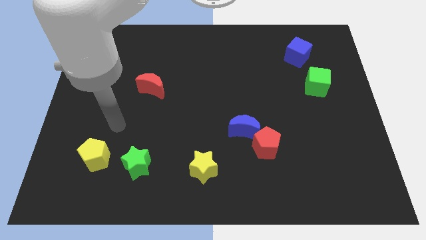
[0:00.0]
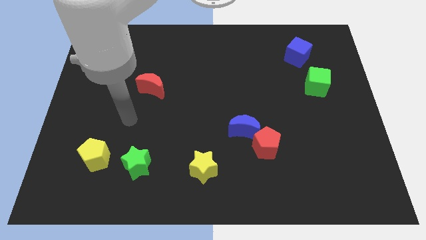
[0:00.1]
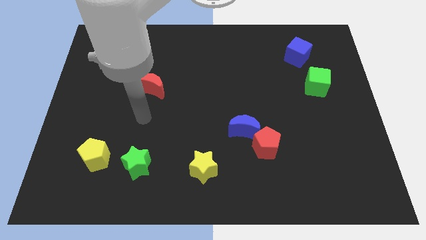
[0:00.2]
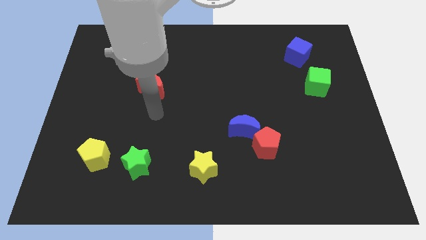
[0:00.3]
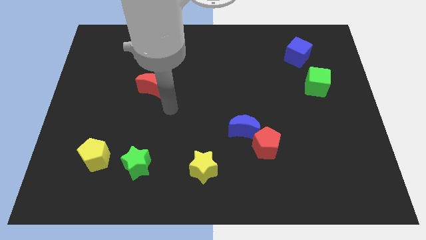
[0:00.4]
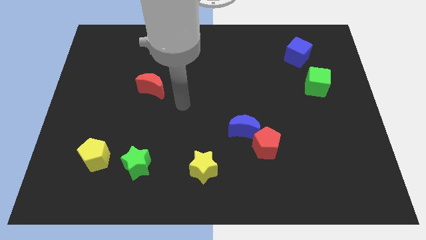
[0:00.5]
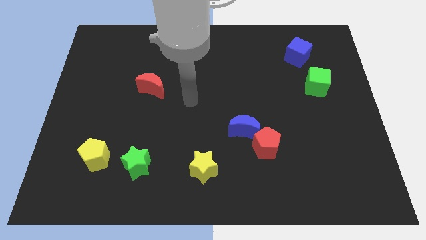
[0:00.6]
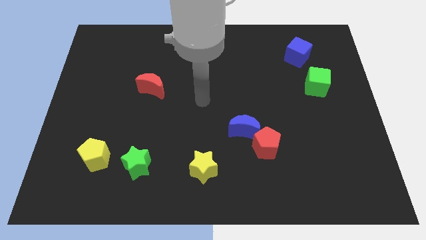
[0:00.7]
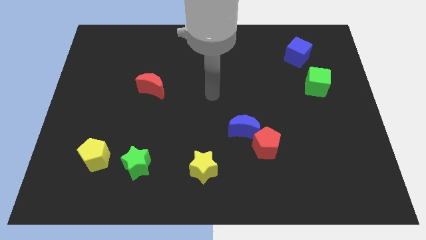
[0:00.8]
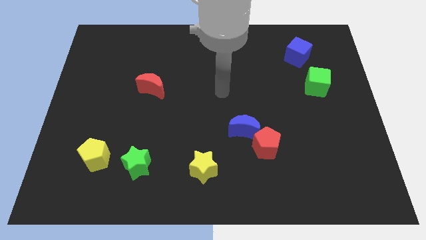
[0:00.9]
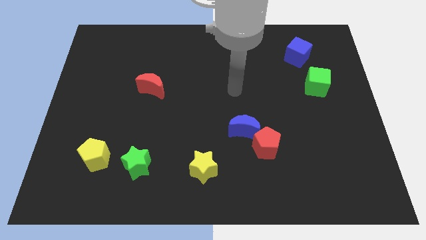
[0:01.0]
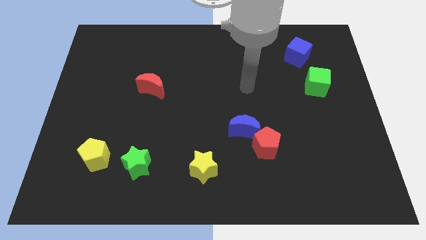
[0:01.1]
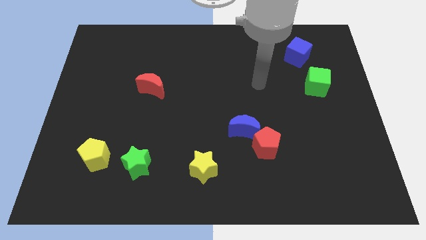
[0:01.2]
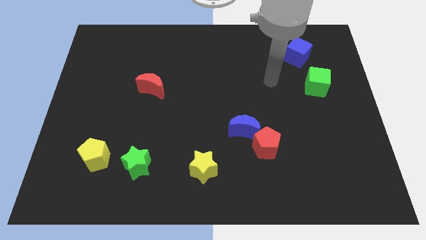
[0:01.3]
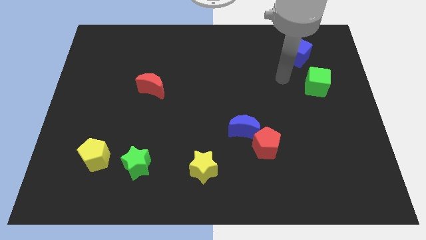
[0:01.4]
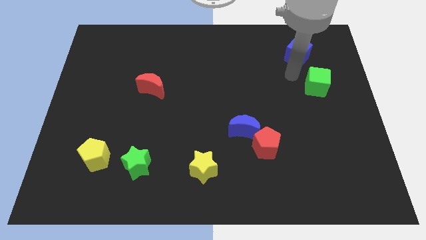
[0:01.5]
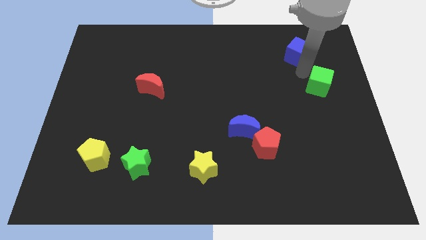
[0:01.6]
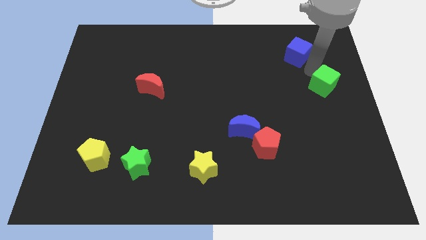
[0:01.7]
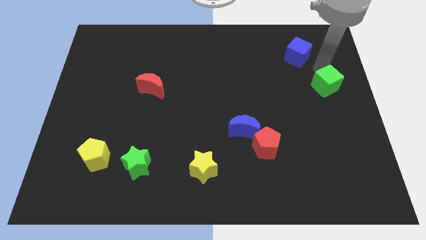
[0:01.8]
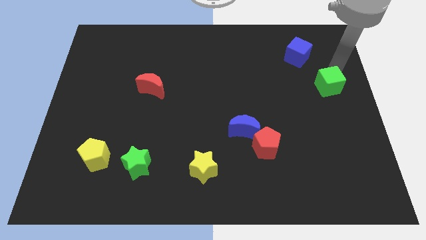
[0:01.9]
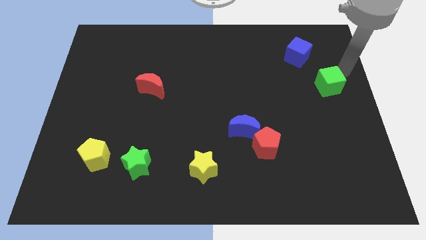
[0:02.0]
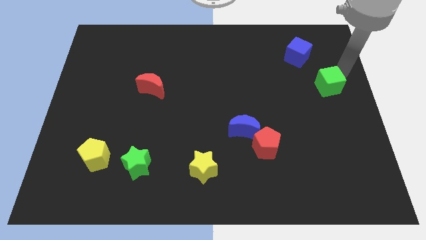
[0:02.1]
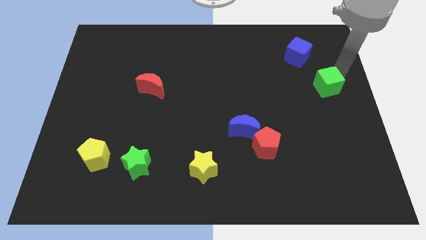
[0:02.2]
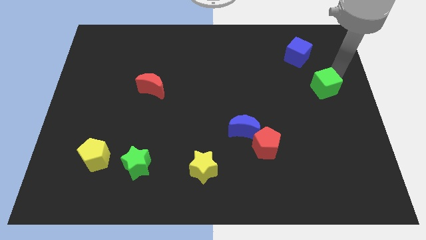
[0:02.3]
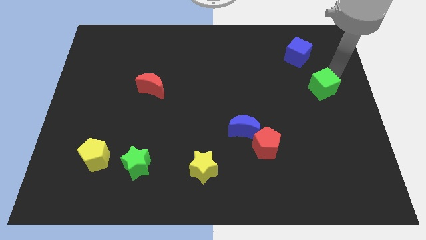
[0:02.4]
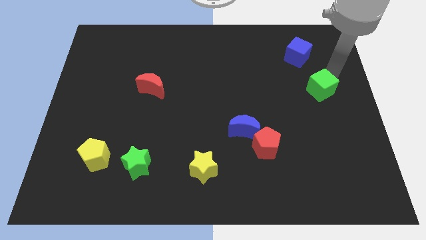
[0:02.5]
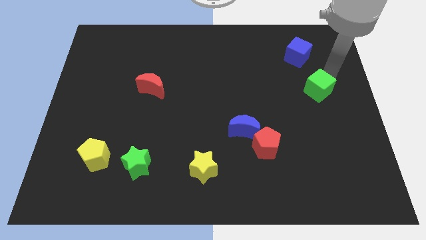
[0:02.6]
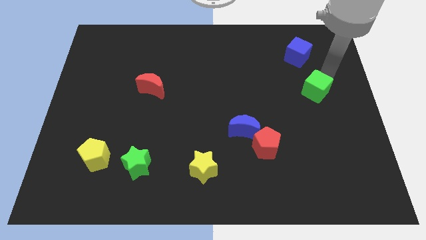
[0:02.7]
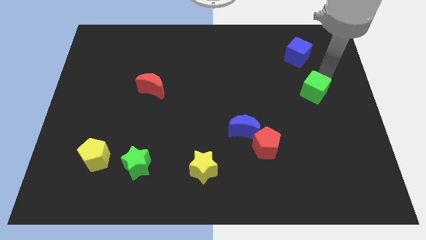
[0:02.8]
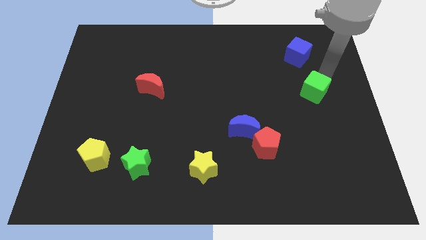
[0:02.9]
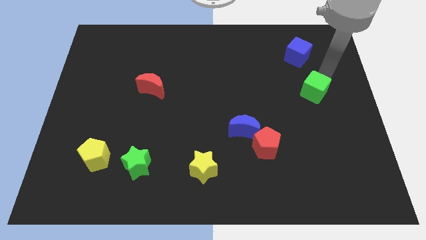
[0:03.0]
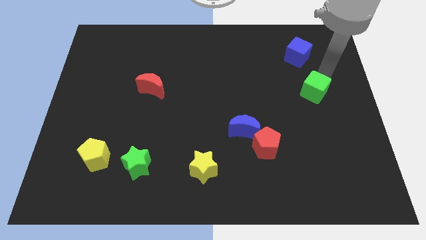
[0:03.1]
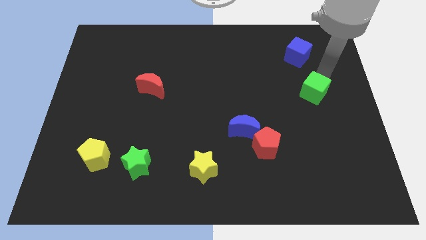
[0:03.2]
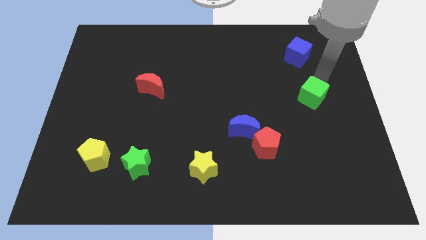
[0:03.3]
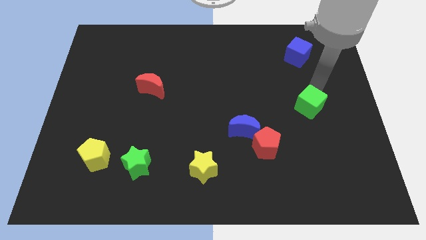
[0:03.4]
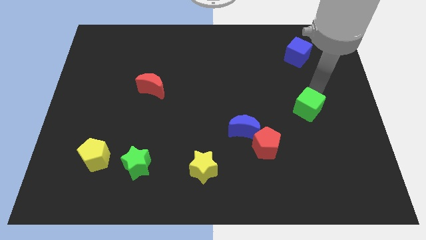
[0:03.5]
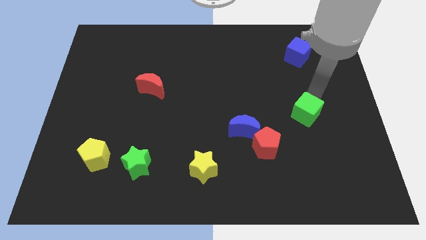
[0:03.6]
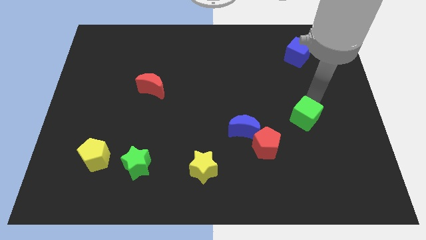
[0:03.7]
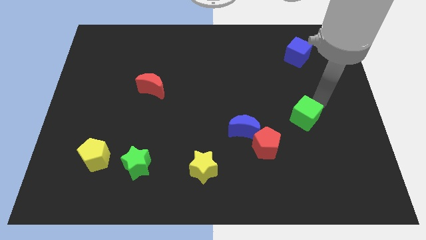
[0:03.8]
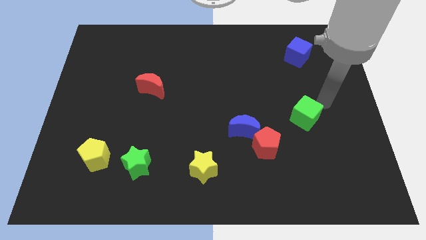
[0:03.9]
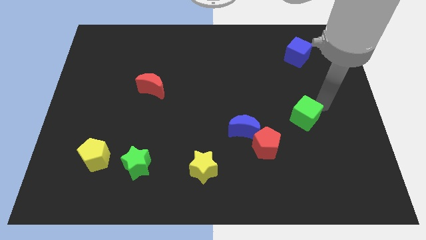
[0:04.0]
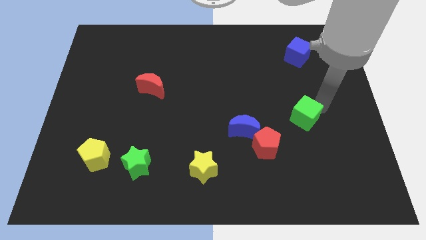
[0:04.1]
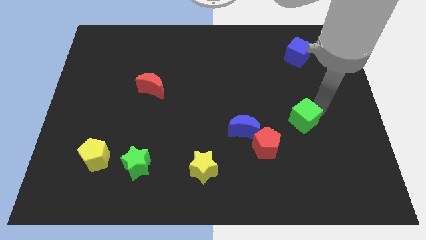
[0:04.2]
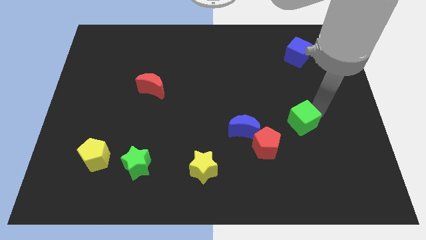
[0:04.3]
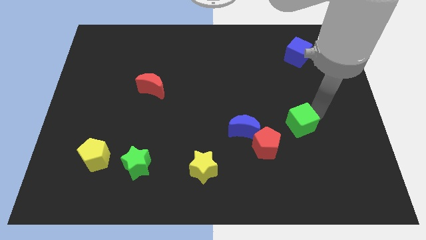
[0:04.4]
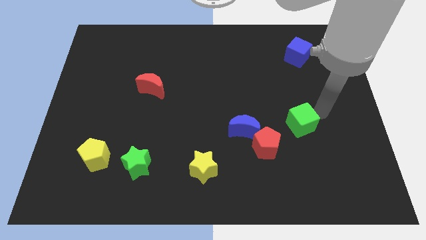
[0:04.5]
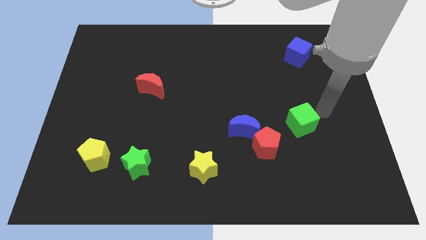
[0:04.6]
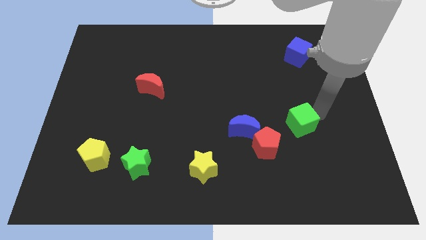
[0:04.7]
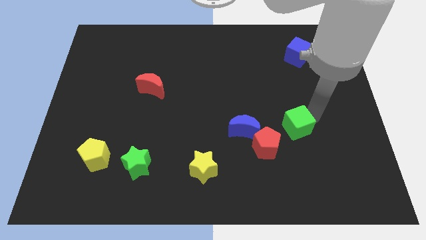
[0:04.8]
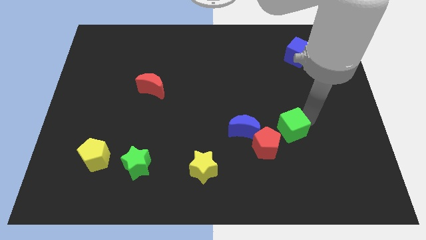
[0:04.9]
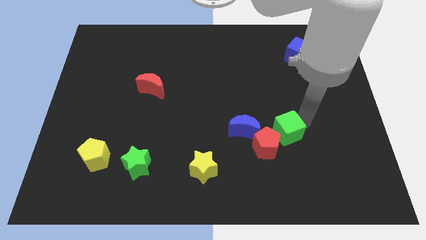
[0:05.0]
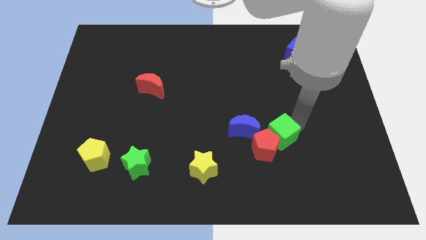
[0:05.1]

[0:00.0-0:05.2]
move the green cube to the red pentagon

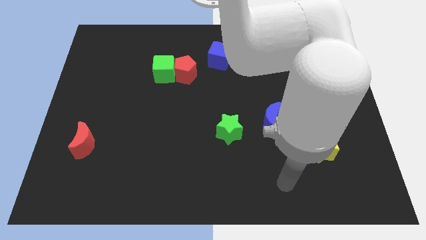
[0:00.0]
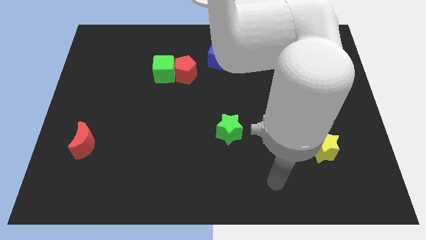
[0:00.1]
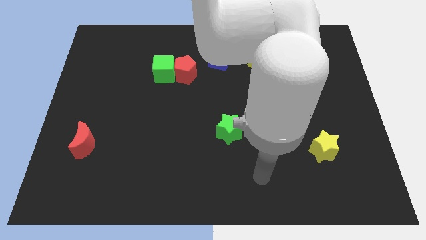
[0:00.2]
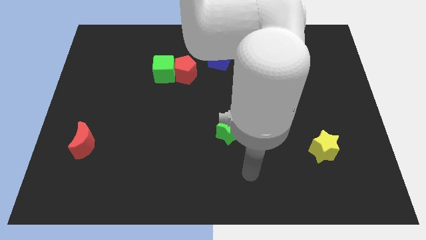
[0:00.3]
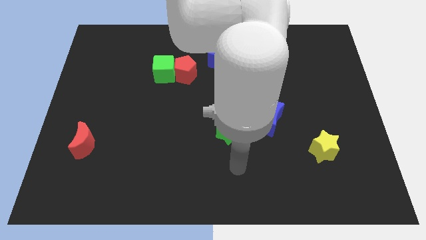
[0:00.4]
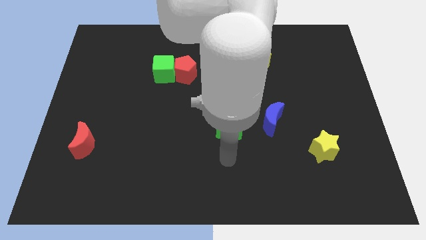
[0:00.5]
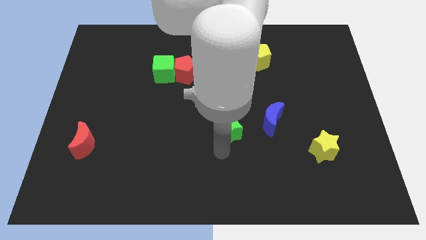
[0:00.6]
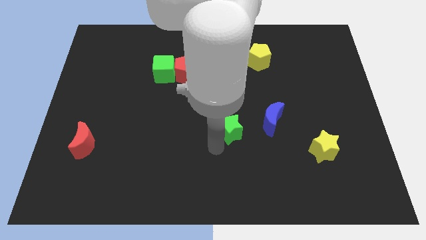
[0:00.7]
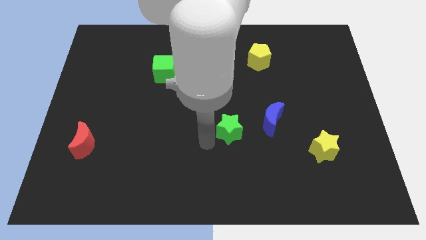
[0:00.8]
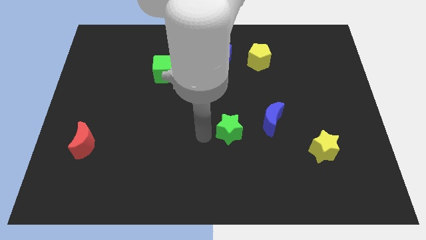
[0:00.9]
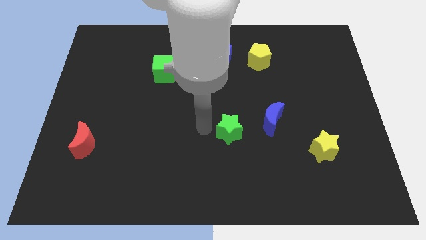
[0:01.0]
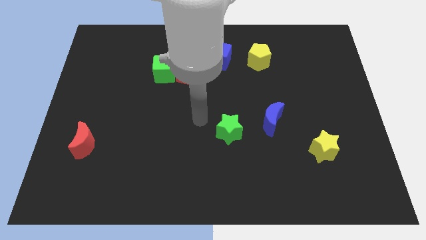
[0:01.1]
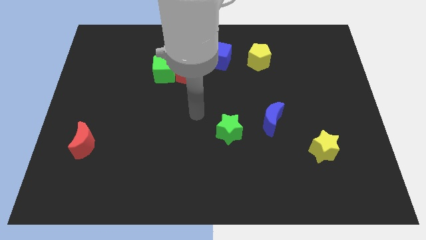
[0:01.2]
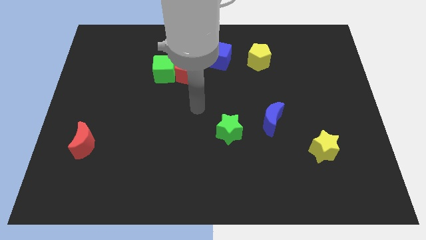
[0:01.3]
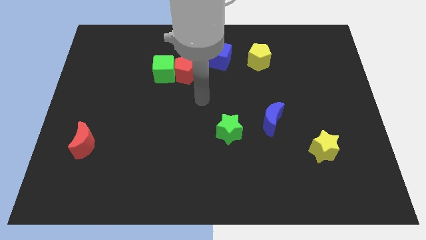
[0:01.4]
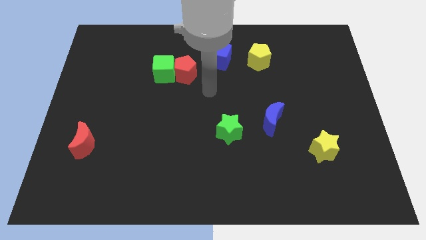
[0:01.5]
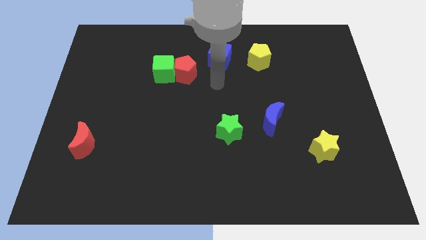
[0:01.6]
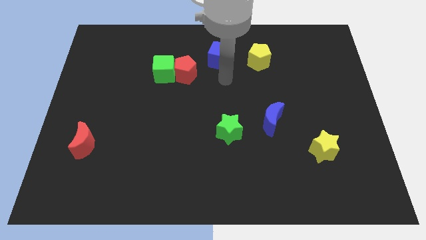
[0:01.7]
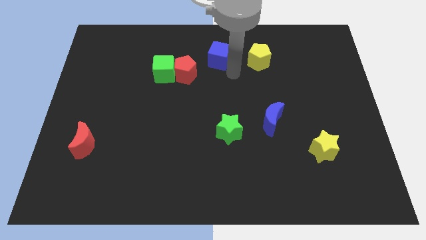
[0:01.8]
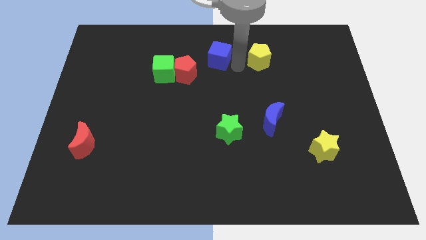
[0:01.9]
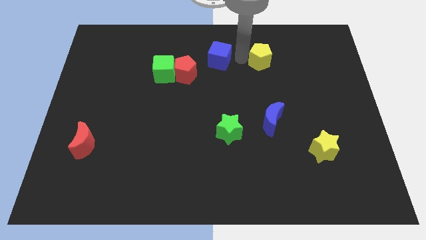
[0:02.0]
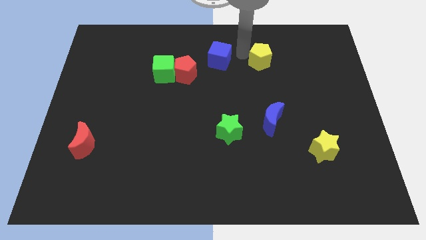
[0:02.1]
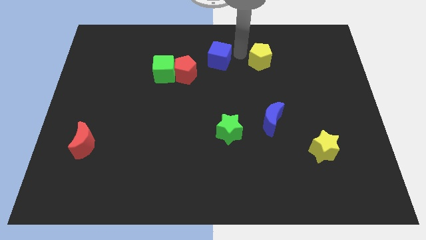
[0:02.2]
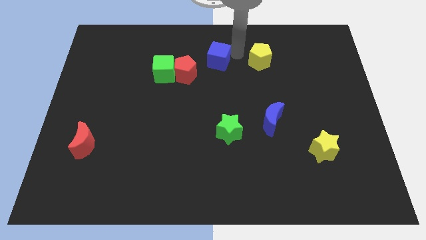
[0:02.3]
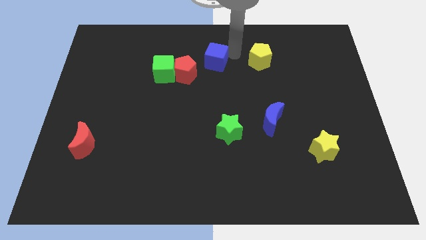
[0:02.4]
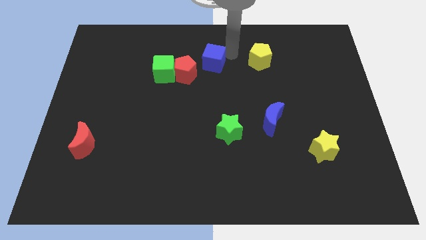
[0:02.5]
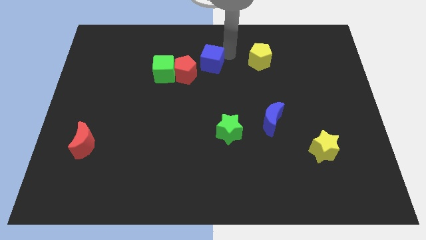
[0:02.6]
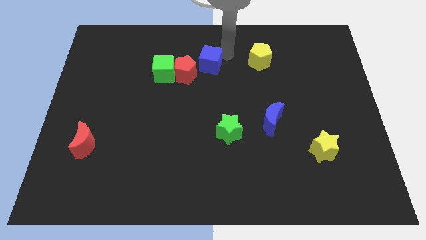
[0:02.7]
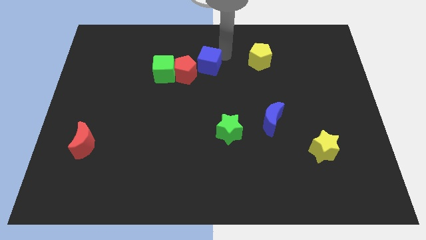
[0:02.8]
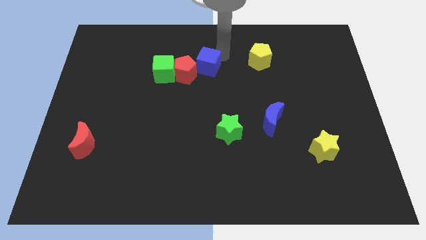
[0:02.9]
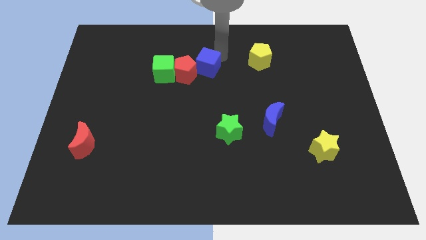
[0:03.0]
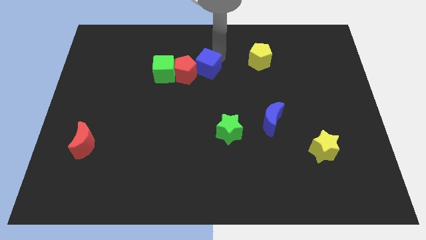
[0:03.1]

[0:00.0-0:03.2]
put the blue cube next to the red pentagon
